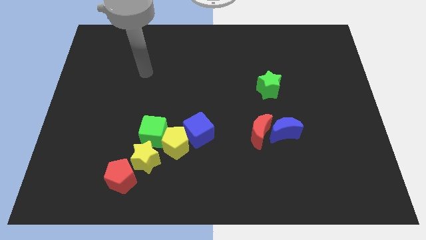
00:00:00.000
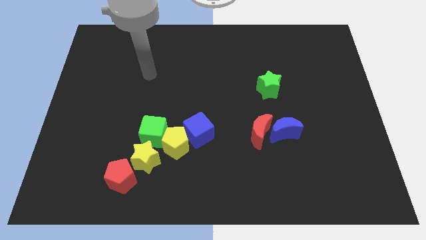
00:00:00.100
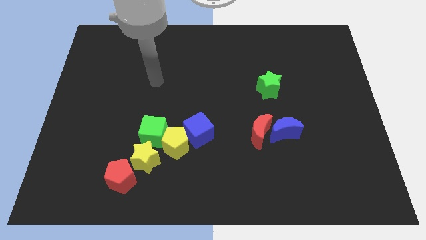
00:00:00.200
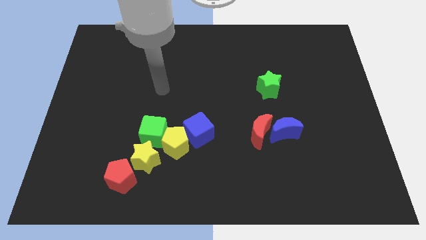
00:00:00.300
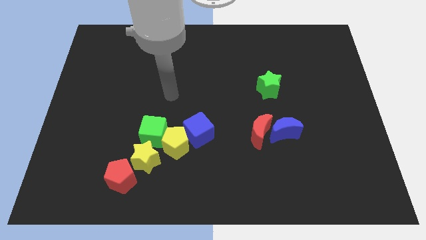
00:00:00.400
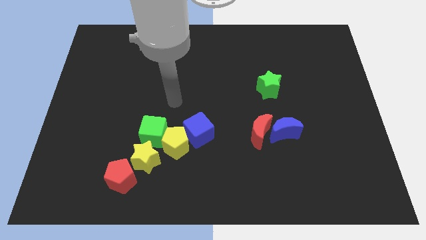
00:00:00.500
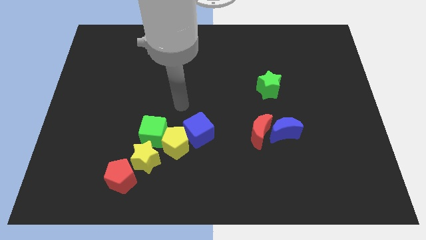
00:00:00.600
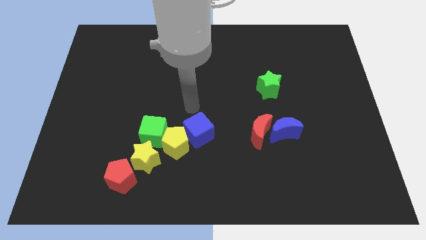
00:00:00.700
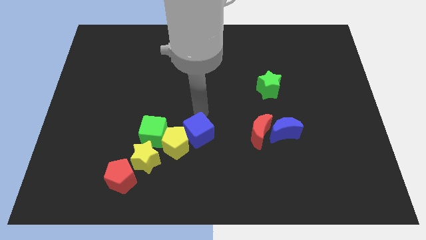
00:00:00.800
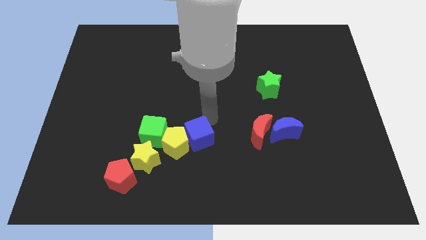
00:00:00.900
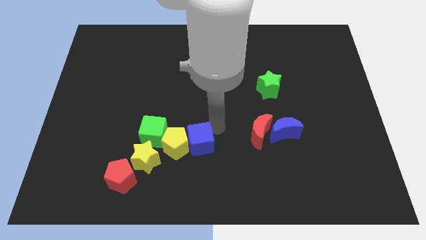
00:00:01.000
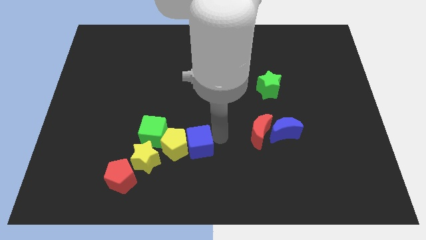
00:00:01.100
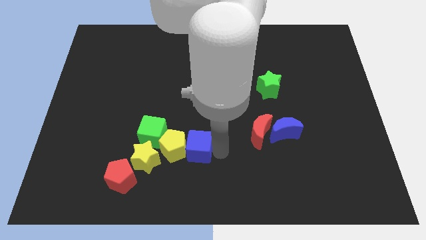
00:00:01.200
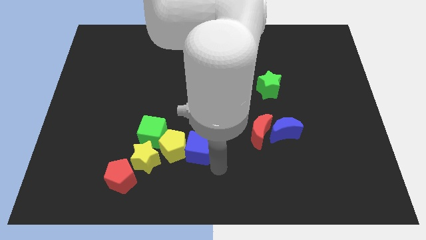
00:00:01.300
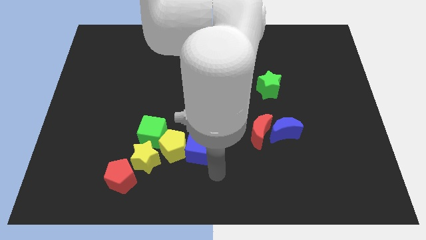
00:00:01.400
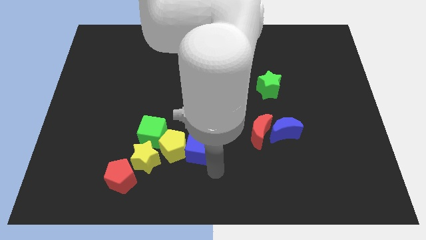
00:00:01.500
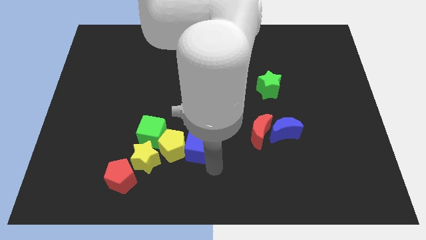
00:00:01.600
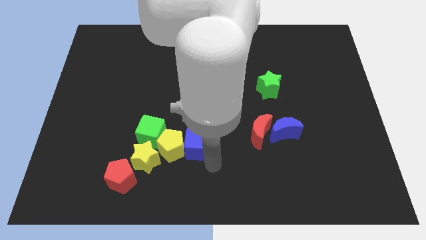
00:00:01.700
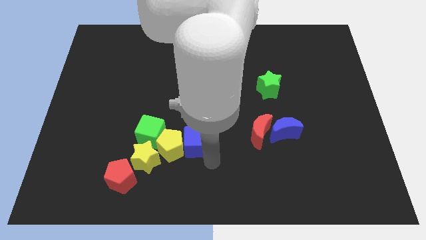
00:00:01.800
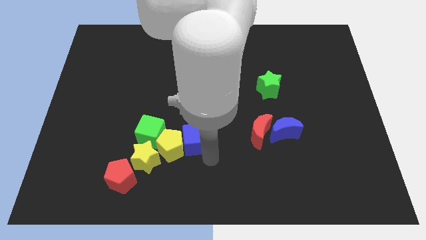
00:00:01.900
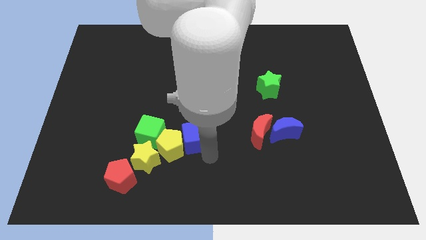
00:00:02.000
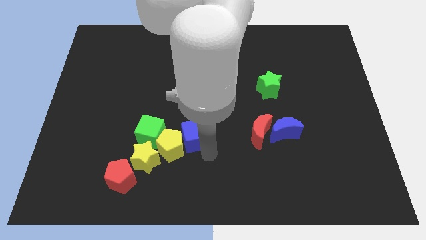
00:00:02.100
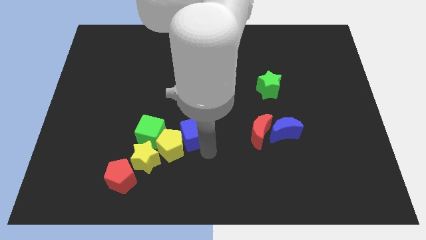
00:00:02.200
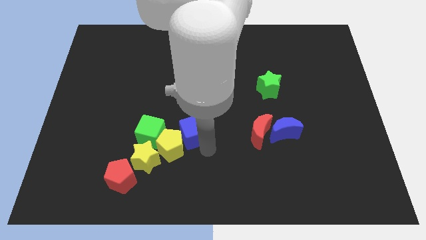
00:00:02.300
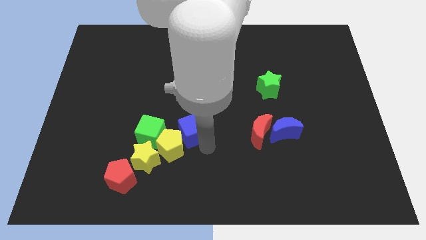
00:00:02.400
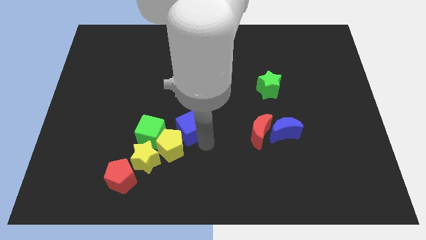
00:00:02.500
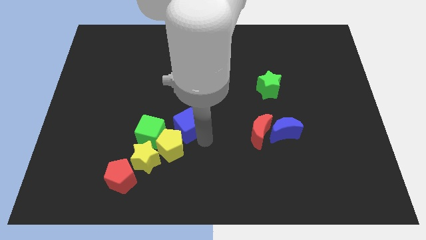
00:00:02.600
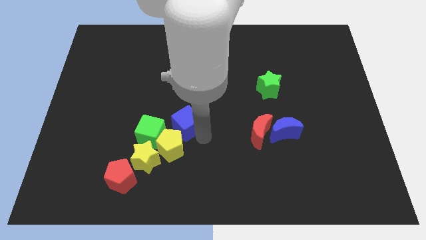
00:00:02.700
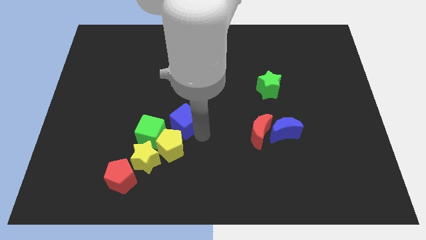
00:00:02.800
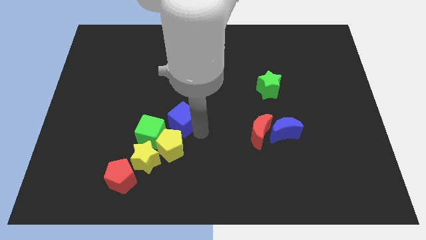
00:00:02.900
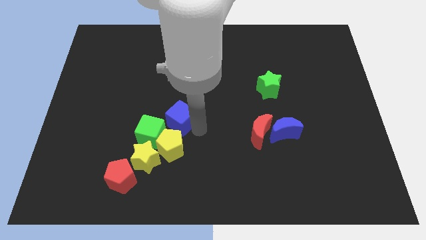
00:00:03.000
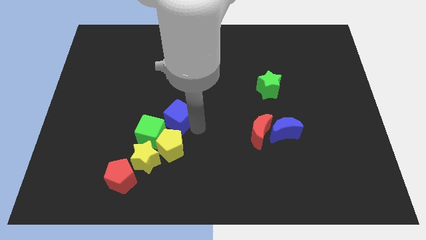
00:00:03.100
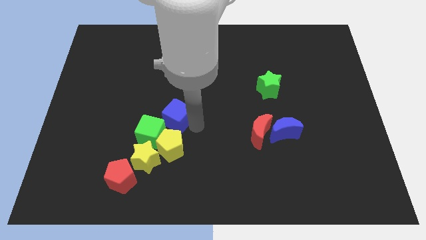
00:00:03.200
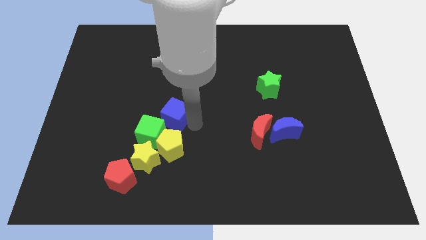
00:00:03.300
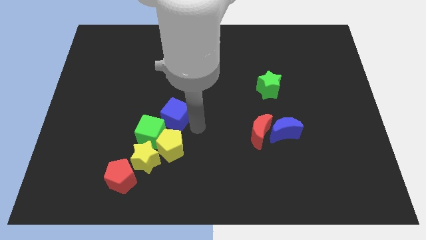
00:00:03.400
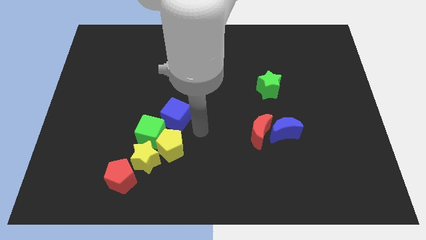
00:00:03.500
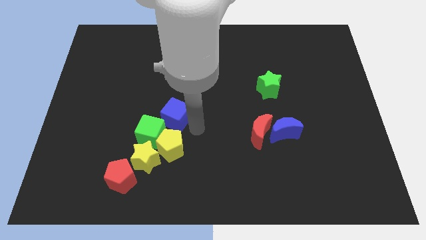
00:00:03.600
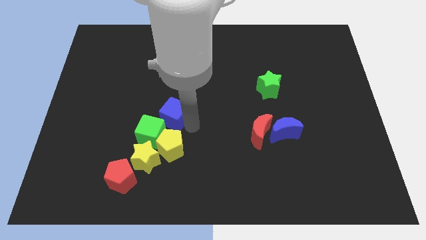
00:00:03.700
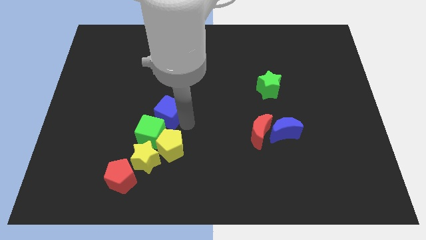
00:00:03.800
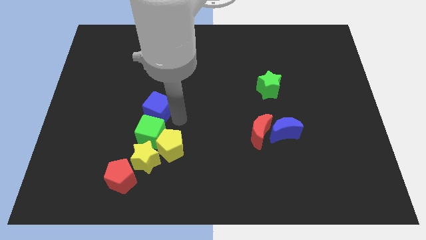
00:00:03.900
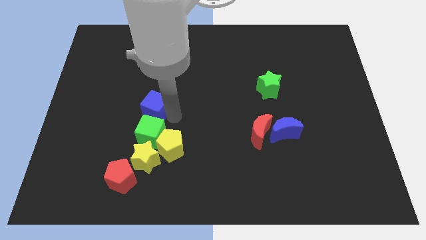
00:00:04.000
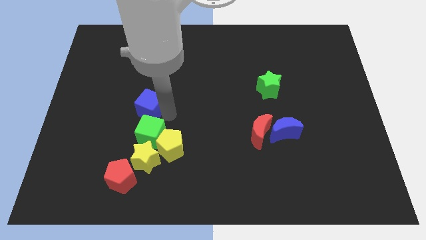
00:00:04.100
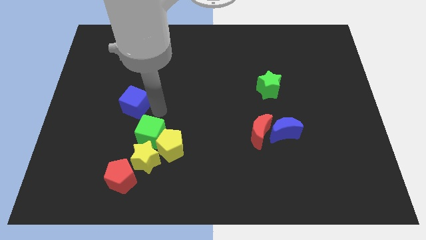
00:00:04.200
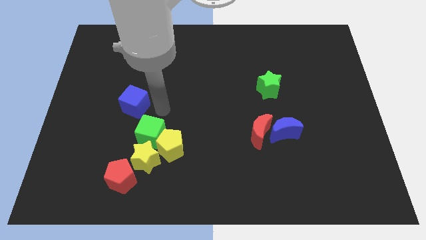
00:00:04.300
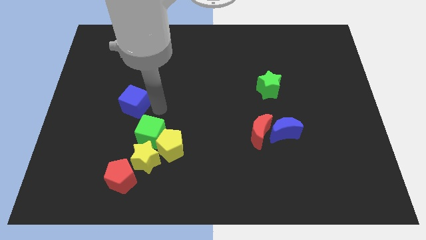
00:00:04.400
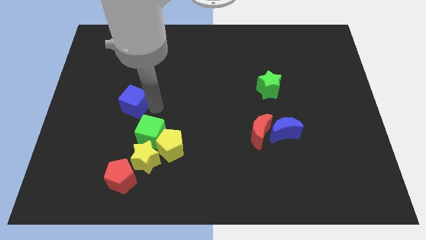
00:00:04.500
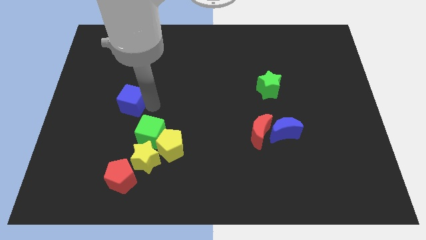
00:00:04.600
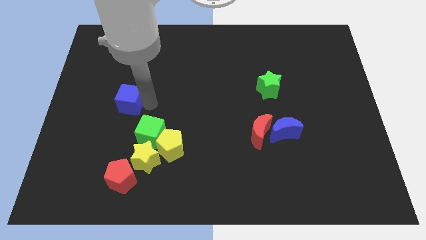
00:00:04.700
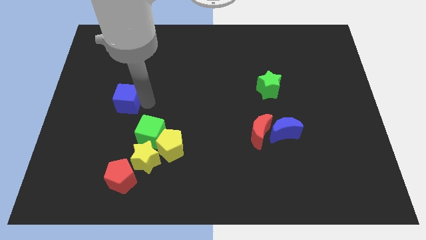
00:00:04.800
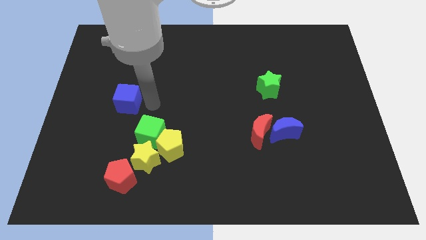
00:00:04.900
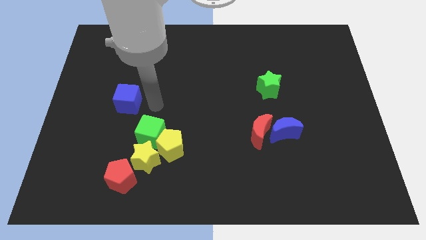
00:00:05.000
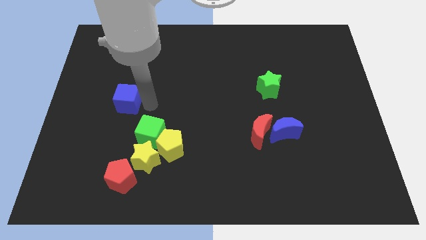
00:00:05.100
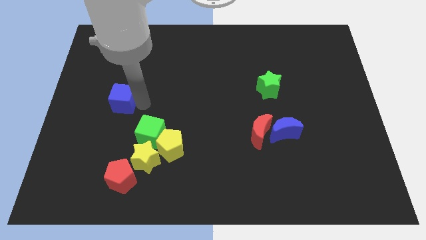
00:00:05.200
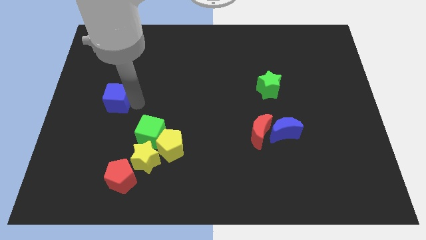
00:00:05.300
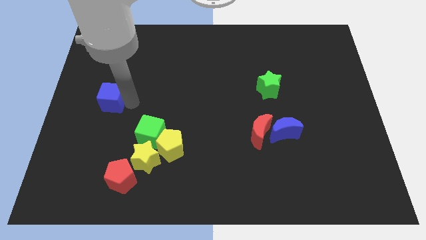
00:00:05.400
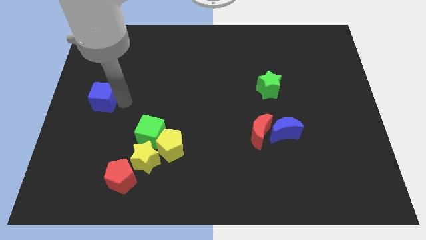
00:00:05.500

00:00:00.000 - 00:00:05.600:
put the blue cube to the center left

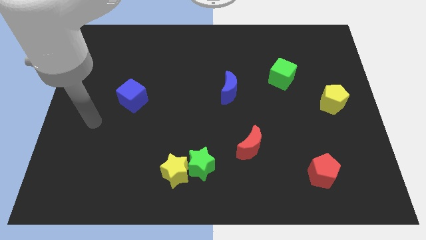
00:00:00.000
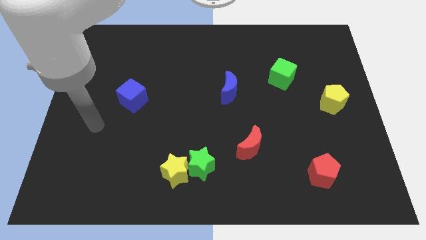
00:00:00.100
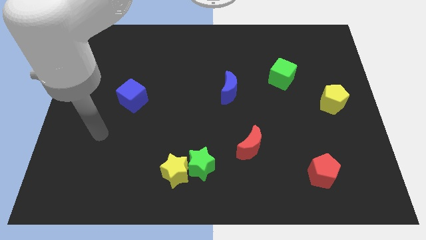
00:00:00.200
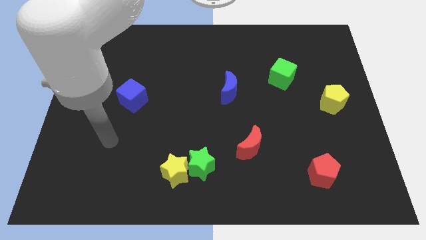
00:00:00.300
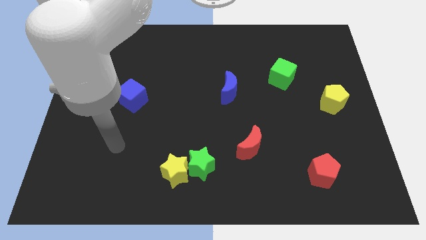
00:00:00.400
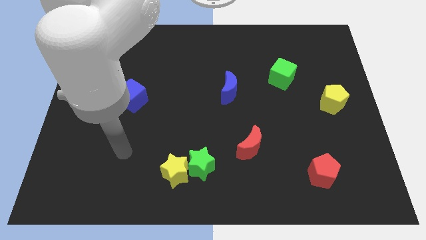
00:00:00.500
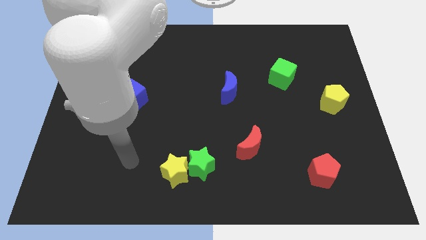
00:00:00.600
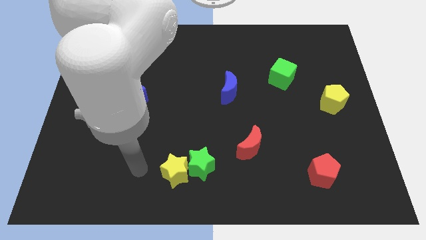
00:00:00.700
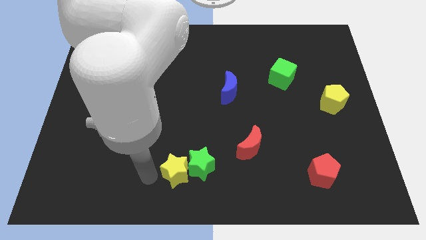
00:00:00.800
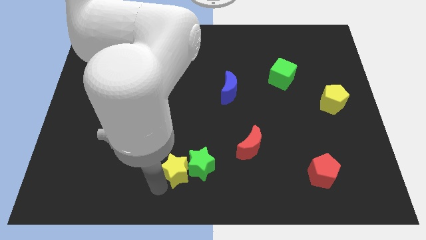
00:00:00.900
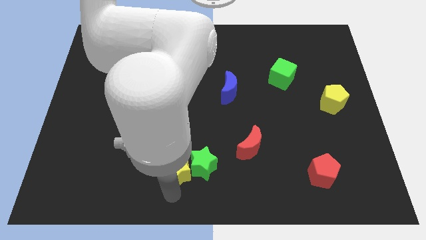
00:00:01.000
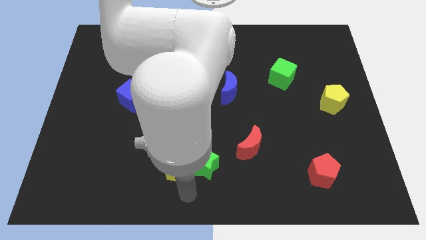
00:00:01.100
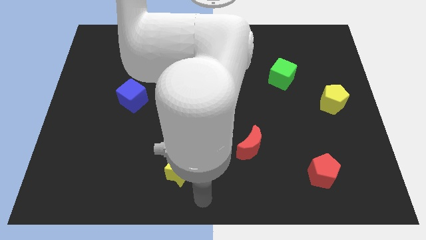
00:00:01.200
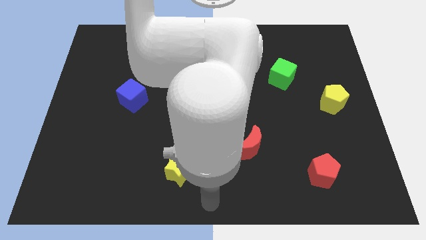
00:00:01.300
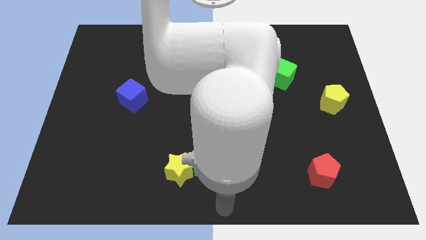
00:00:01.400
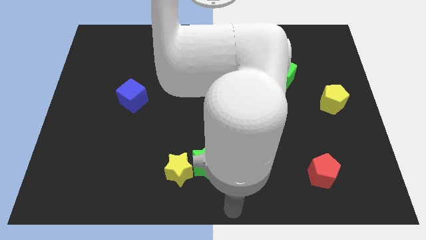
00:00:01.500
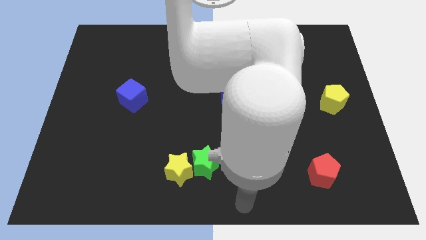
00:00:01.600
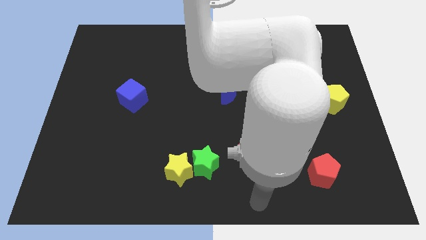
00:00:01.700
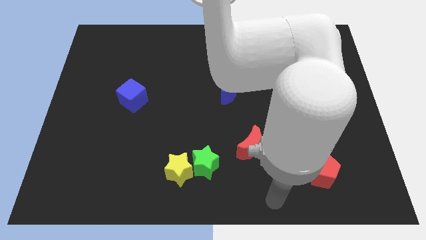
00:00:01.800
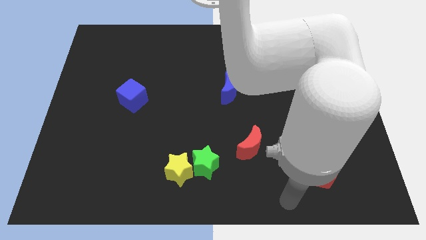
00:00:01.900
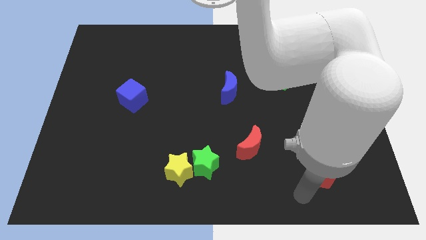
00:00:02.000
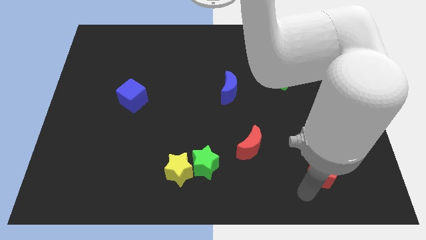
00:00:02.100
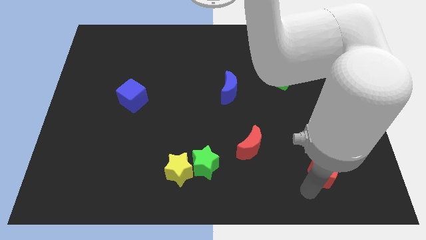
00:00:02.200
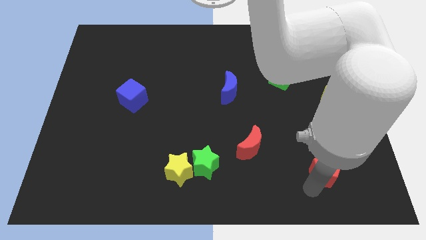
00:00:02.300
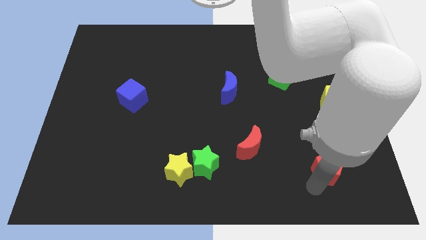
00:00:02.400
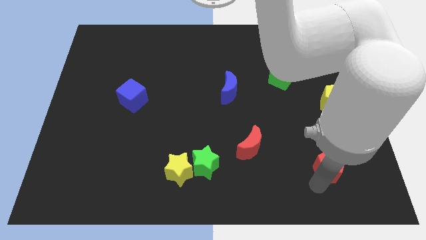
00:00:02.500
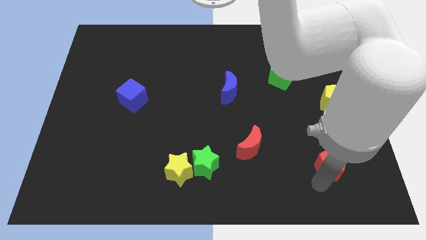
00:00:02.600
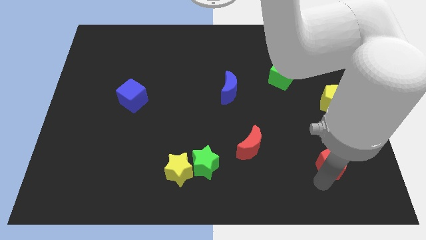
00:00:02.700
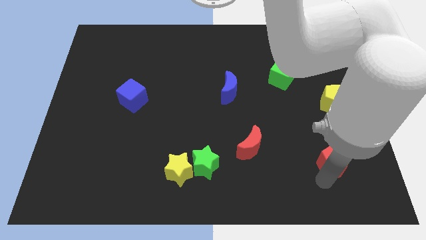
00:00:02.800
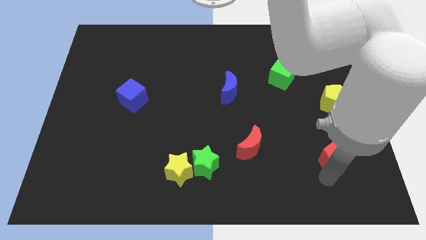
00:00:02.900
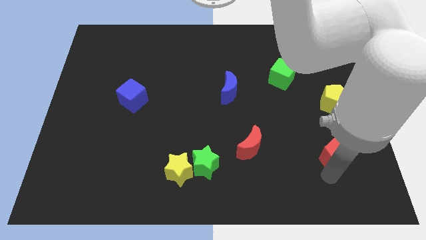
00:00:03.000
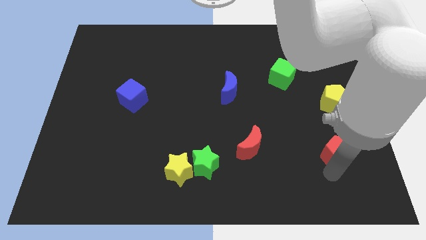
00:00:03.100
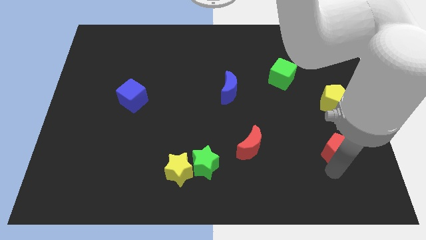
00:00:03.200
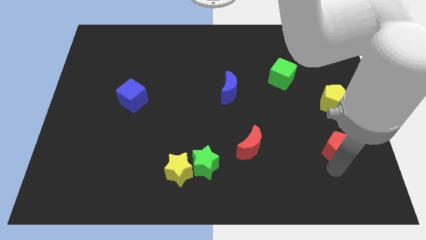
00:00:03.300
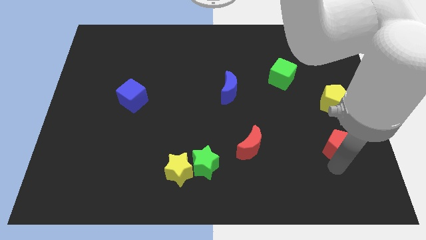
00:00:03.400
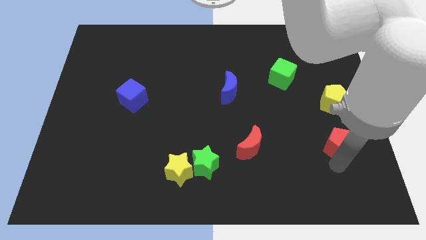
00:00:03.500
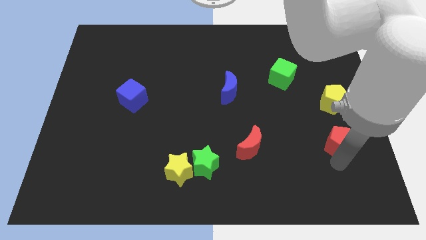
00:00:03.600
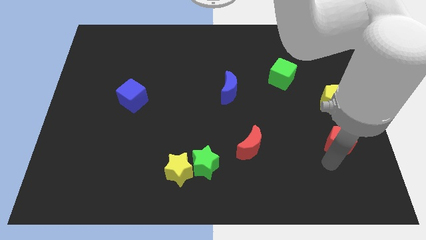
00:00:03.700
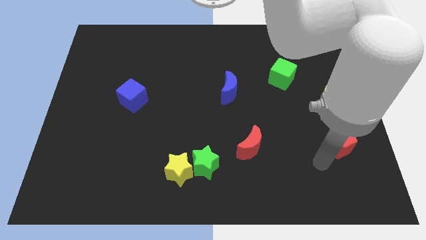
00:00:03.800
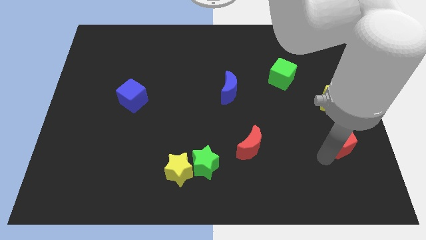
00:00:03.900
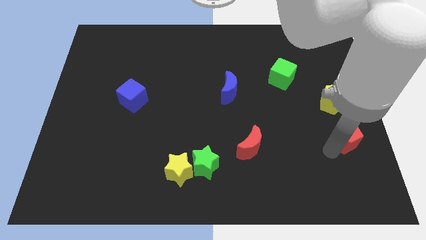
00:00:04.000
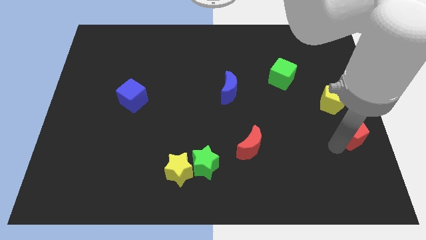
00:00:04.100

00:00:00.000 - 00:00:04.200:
slide the red pentagon to the right side of the board
